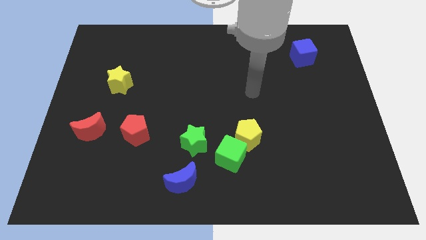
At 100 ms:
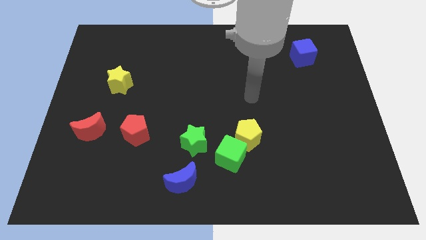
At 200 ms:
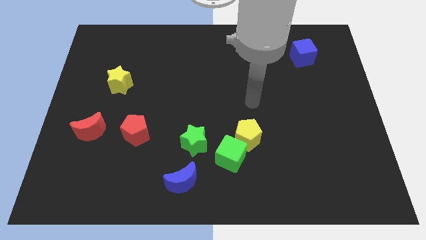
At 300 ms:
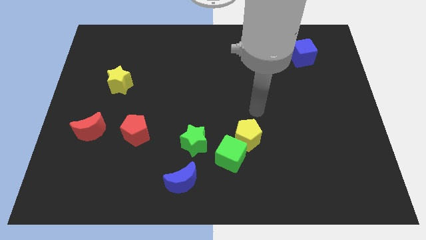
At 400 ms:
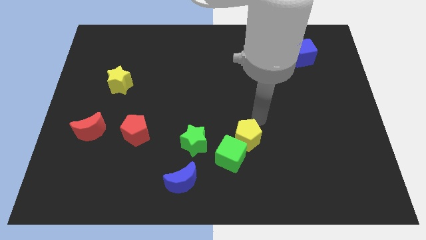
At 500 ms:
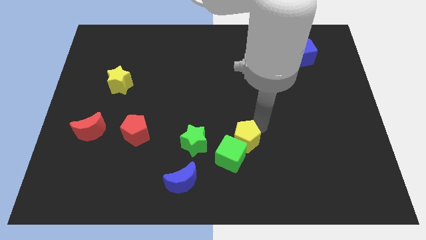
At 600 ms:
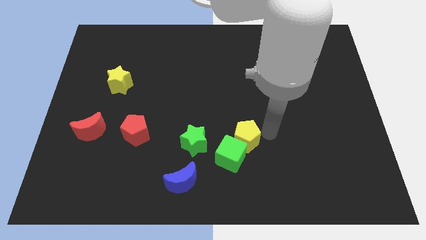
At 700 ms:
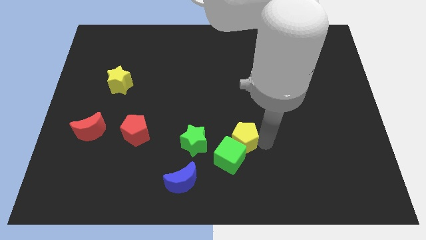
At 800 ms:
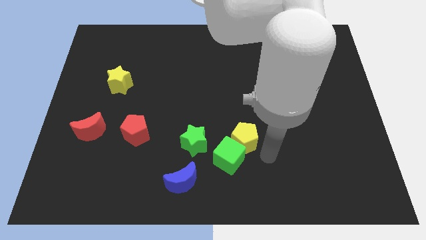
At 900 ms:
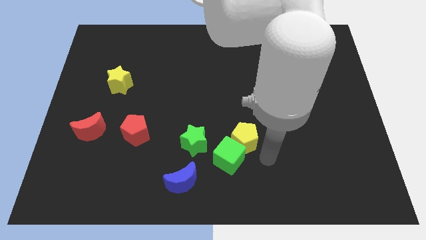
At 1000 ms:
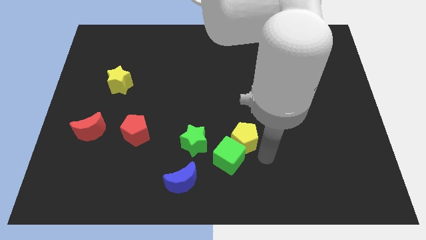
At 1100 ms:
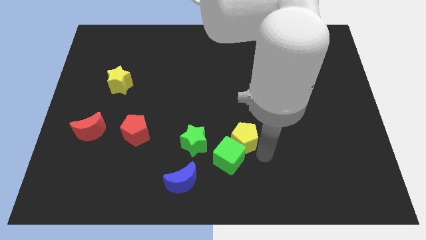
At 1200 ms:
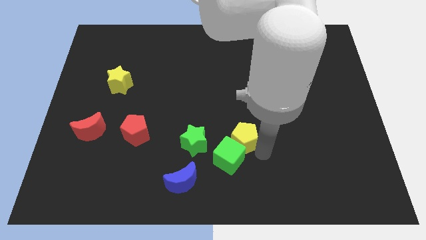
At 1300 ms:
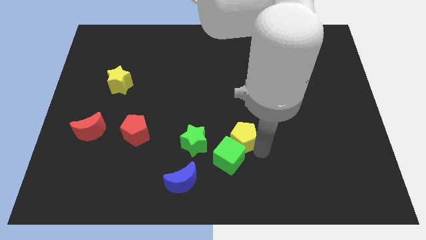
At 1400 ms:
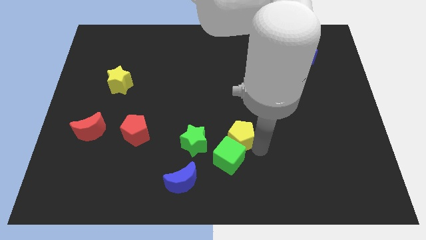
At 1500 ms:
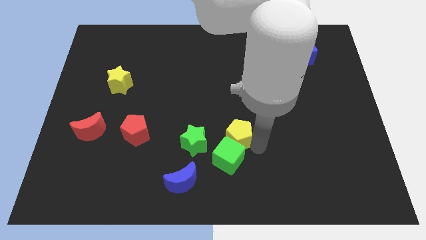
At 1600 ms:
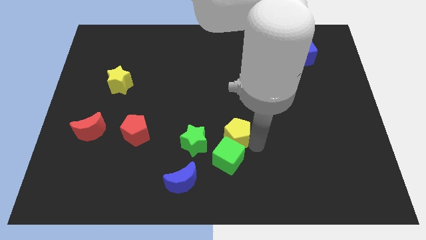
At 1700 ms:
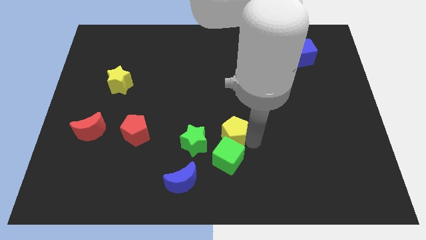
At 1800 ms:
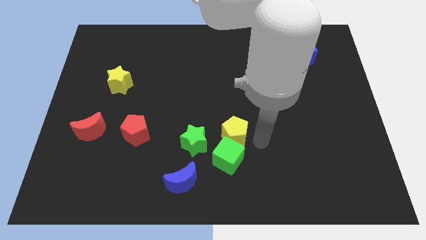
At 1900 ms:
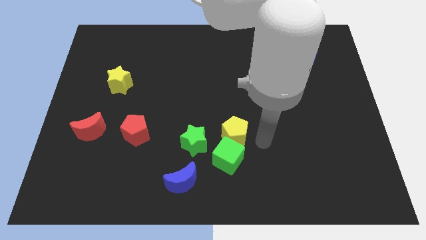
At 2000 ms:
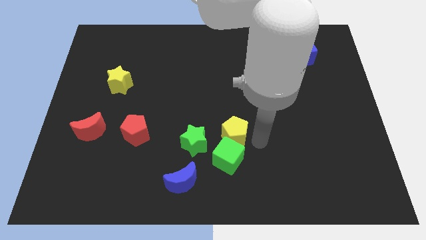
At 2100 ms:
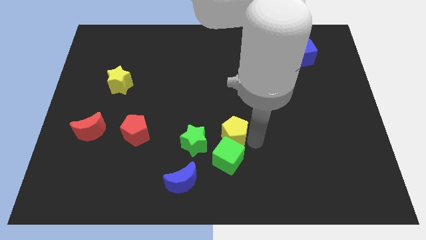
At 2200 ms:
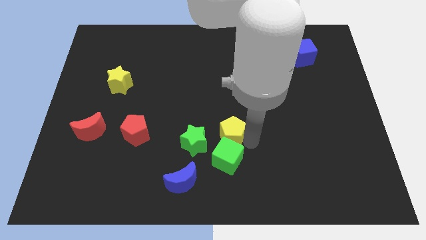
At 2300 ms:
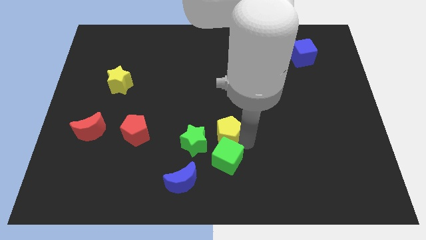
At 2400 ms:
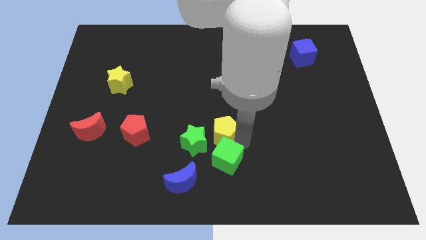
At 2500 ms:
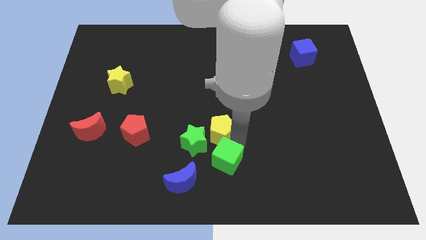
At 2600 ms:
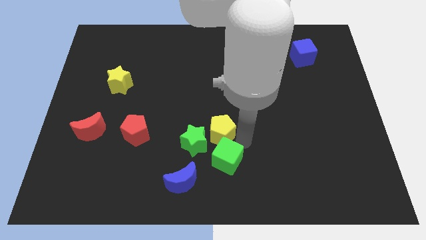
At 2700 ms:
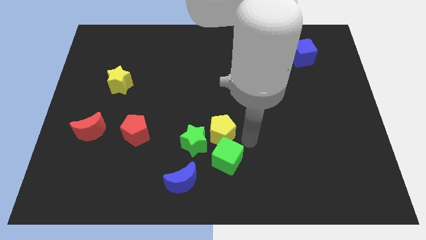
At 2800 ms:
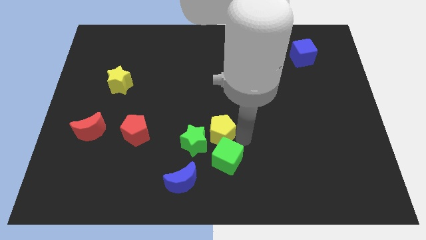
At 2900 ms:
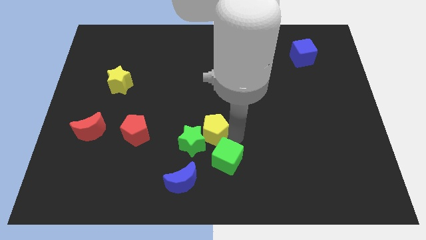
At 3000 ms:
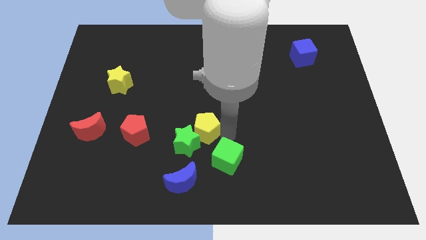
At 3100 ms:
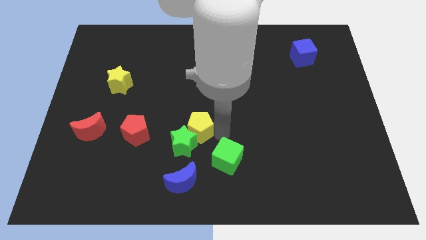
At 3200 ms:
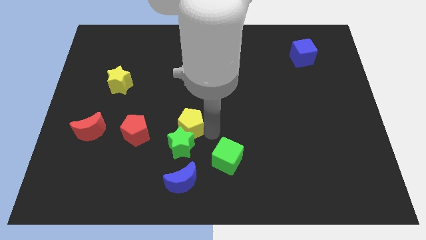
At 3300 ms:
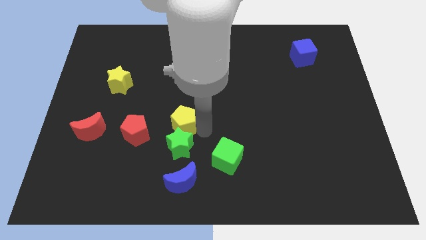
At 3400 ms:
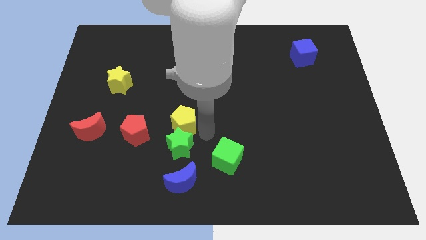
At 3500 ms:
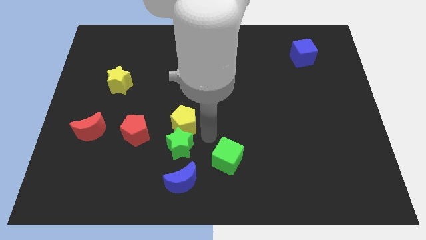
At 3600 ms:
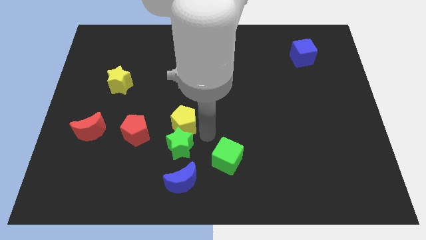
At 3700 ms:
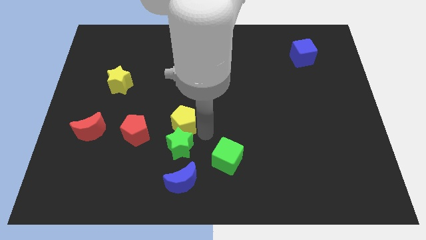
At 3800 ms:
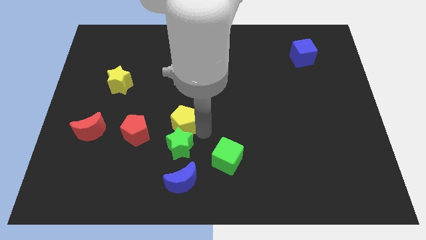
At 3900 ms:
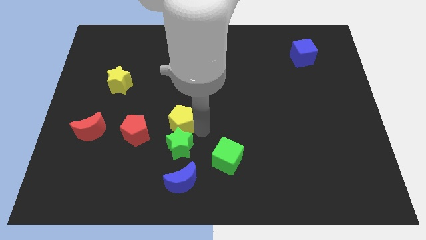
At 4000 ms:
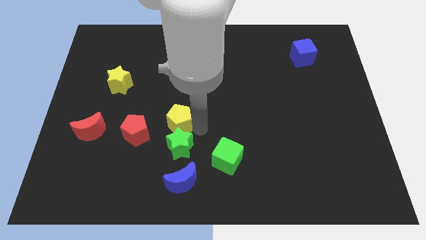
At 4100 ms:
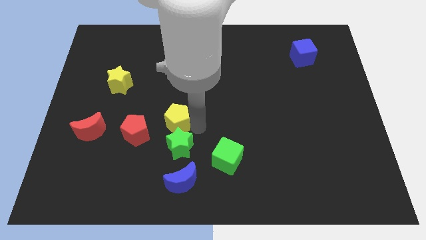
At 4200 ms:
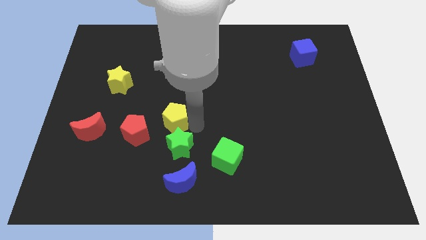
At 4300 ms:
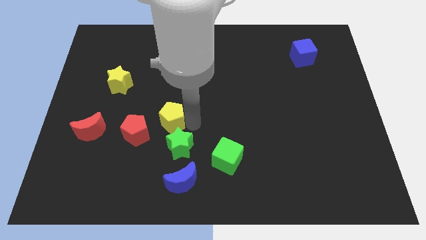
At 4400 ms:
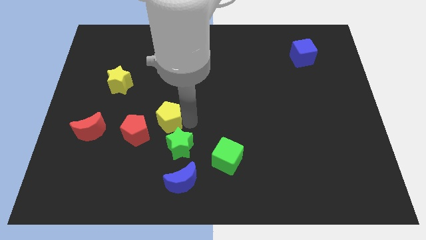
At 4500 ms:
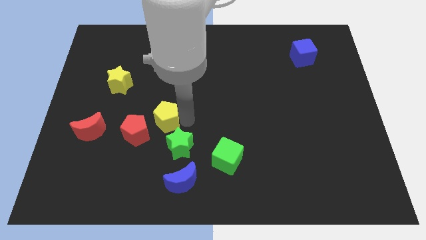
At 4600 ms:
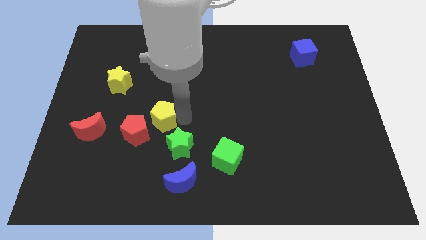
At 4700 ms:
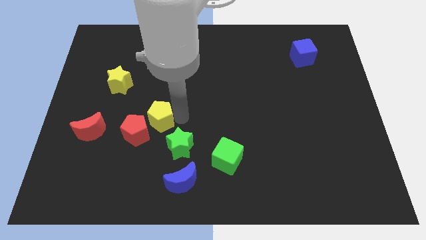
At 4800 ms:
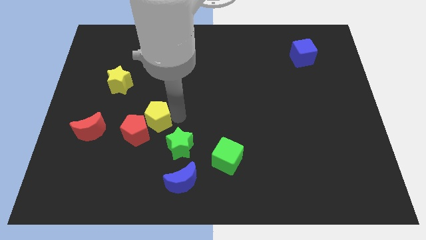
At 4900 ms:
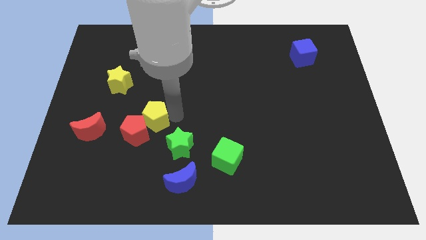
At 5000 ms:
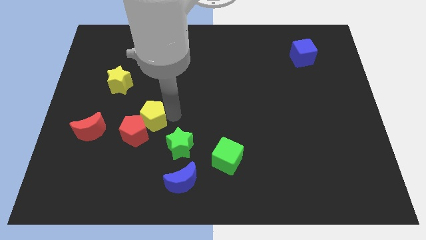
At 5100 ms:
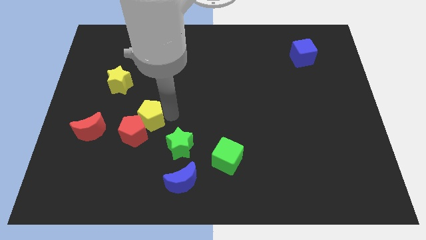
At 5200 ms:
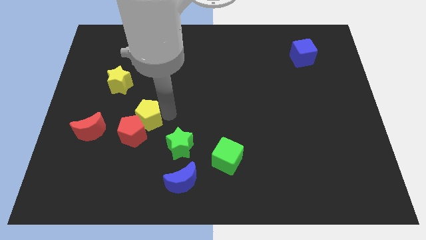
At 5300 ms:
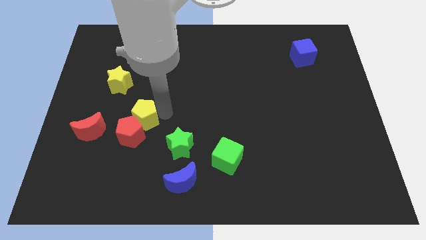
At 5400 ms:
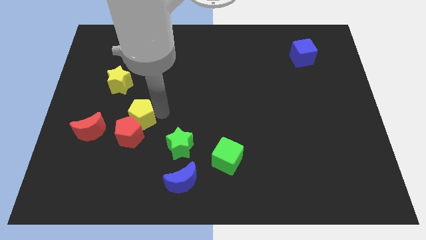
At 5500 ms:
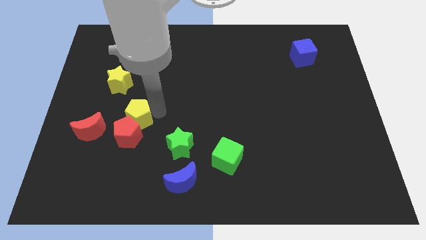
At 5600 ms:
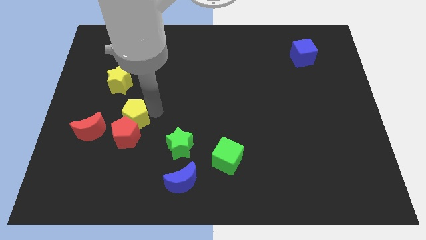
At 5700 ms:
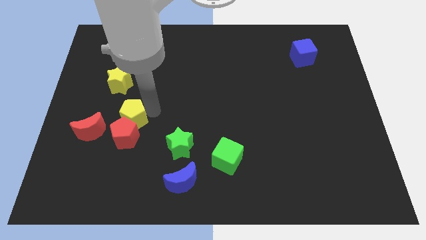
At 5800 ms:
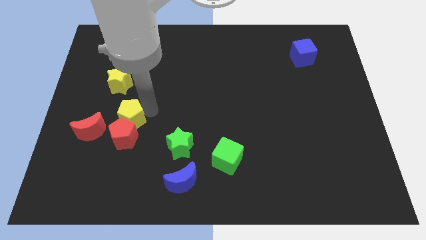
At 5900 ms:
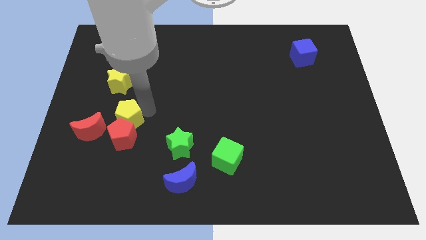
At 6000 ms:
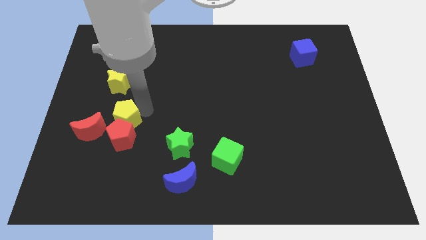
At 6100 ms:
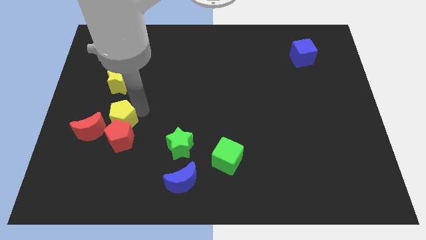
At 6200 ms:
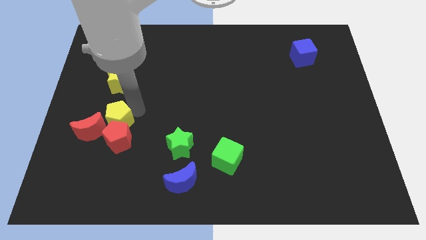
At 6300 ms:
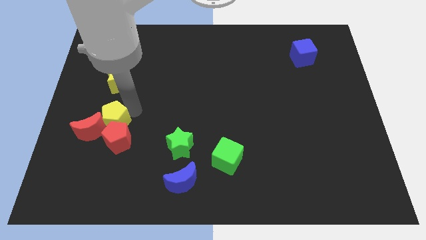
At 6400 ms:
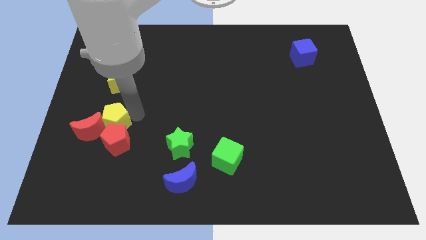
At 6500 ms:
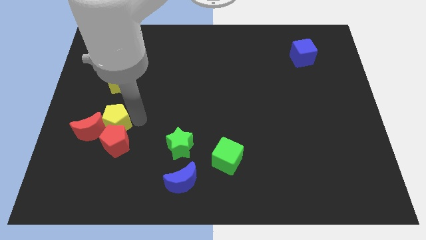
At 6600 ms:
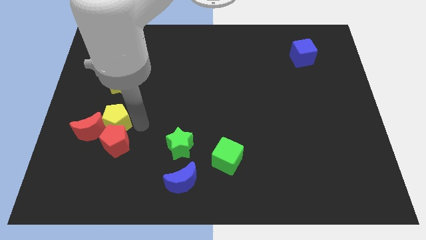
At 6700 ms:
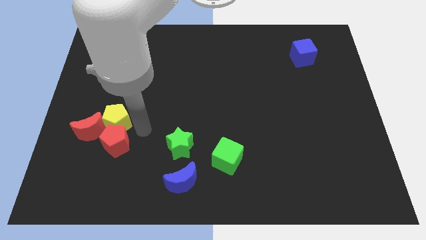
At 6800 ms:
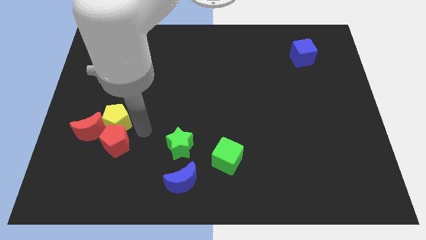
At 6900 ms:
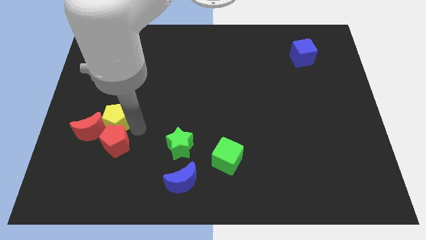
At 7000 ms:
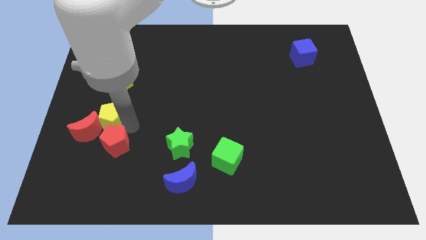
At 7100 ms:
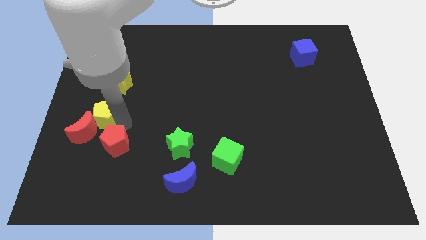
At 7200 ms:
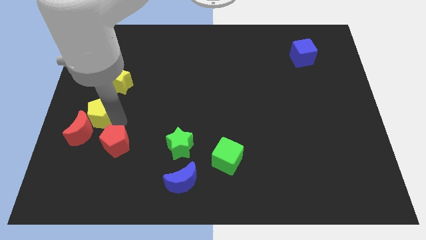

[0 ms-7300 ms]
slide the yellow pentagon to the left side of the board

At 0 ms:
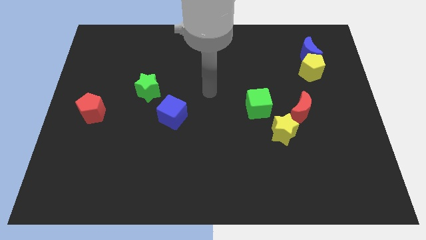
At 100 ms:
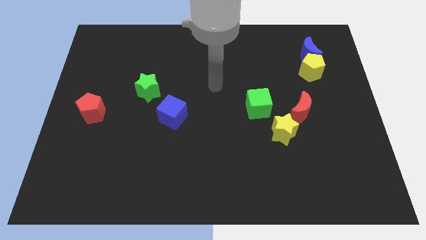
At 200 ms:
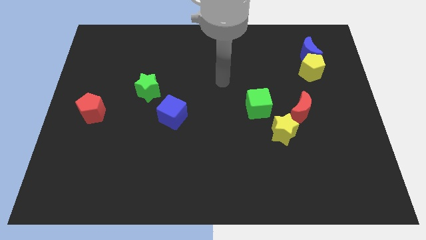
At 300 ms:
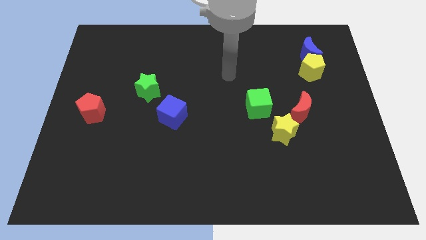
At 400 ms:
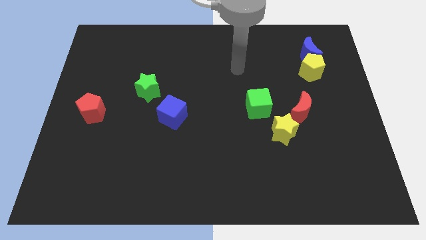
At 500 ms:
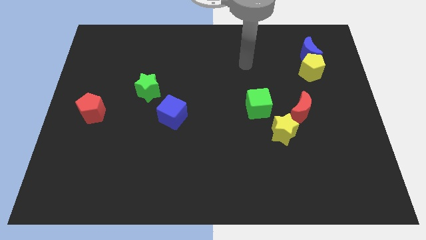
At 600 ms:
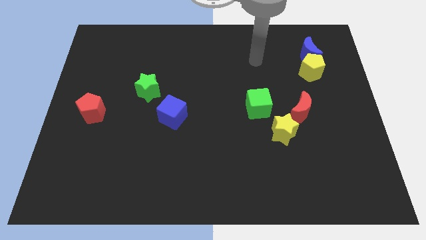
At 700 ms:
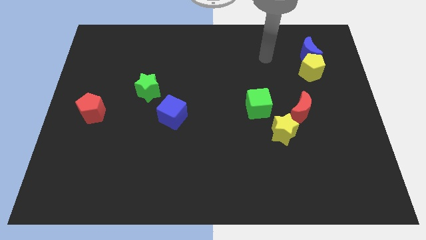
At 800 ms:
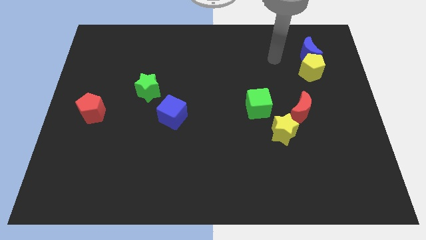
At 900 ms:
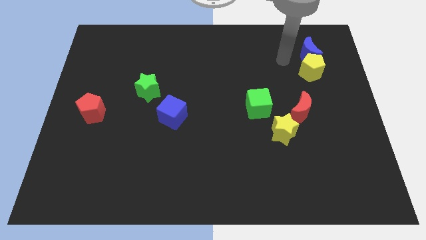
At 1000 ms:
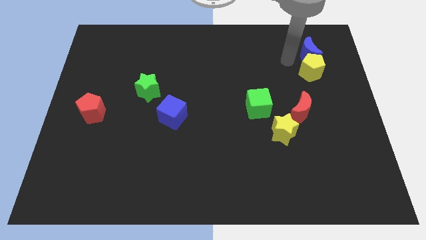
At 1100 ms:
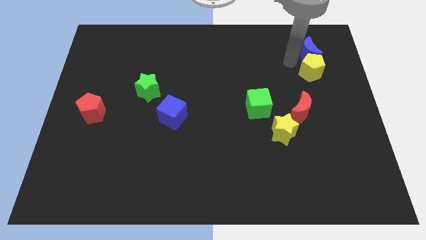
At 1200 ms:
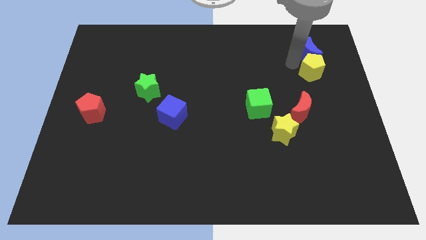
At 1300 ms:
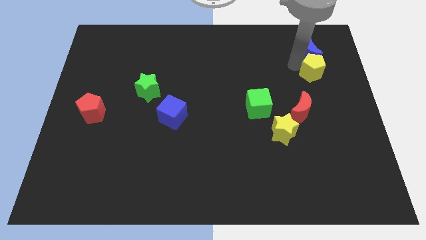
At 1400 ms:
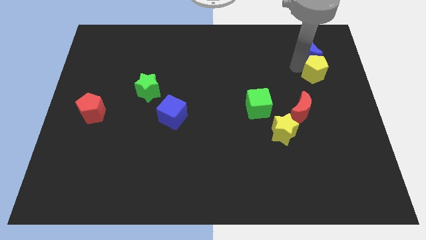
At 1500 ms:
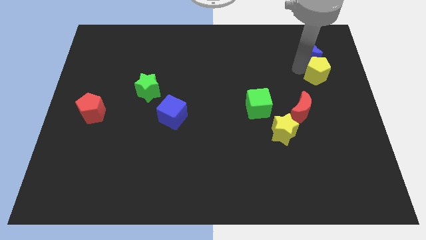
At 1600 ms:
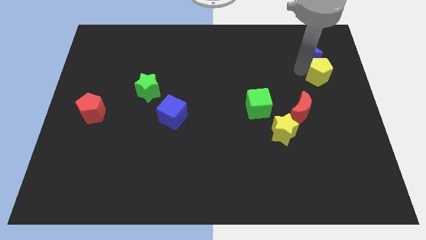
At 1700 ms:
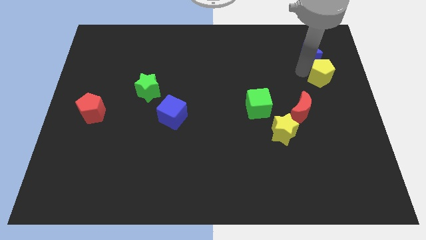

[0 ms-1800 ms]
move the yellow pentagon to the right side
